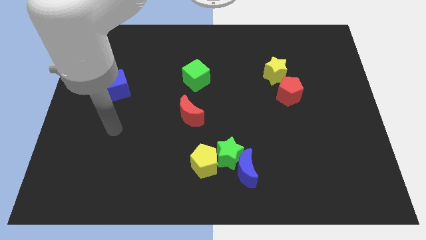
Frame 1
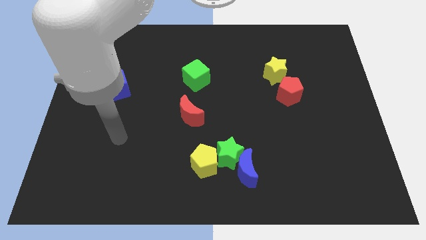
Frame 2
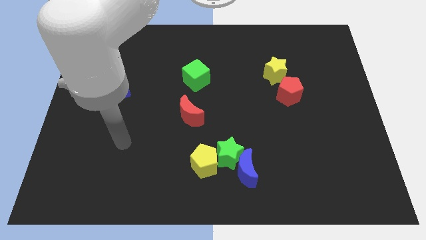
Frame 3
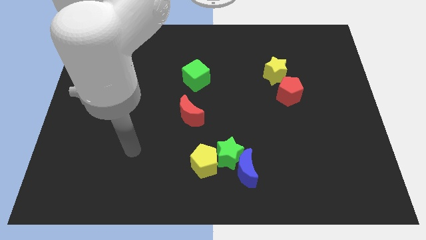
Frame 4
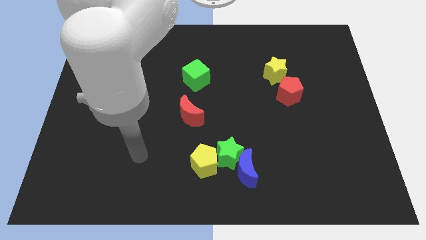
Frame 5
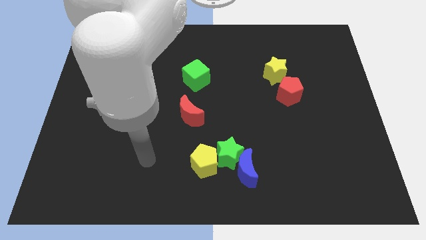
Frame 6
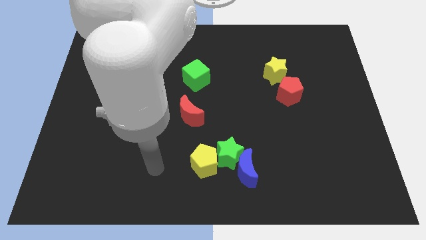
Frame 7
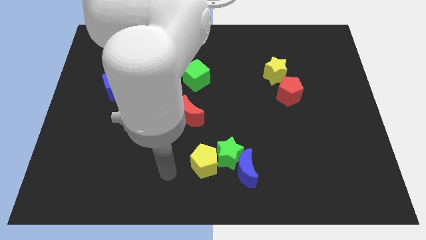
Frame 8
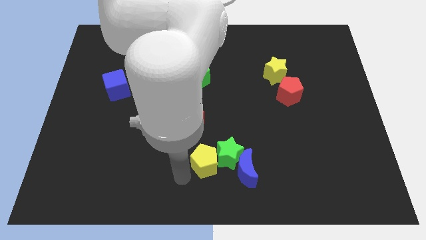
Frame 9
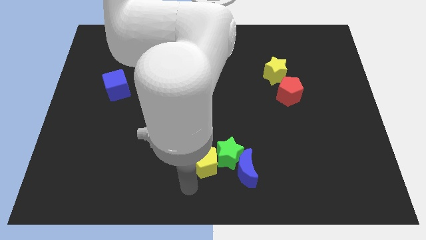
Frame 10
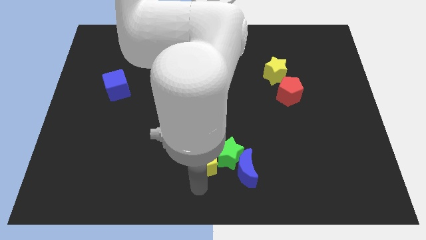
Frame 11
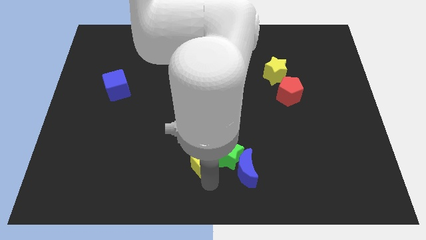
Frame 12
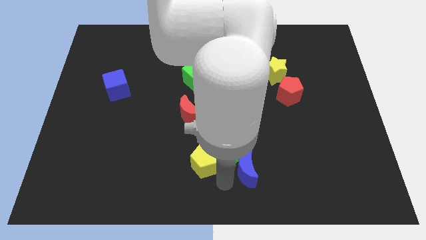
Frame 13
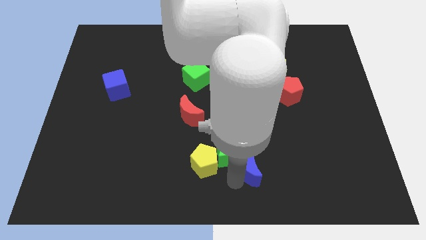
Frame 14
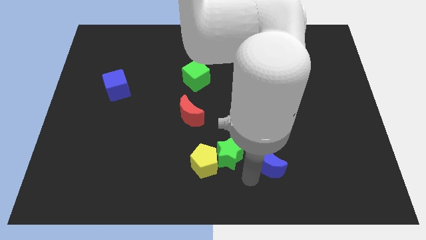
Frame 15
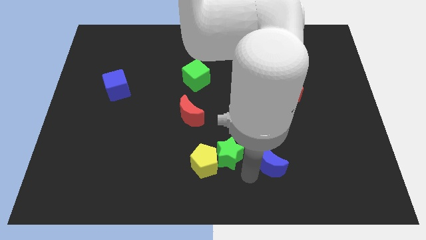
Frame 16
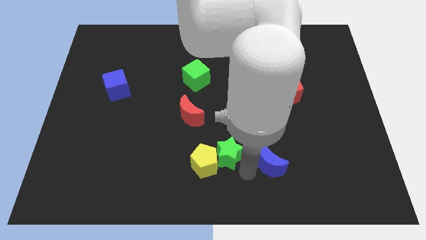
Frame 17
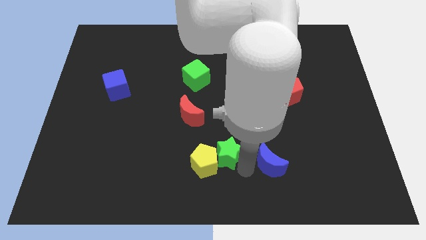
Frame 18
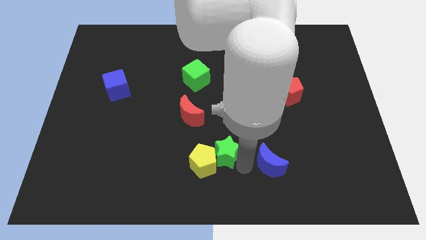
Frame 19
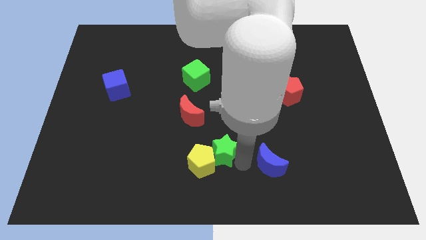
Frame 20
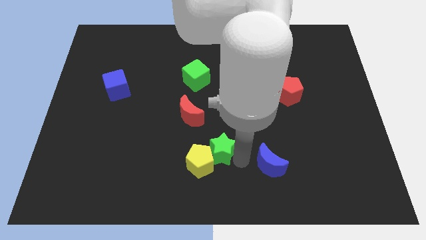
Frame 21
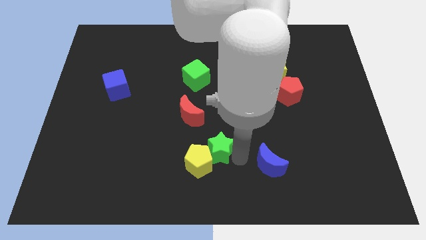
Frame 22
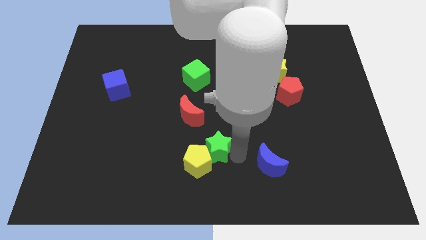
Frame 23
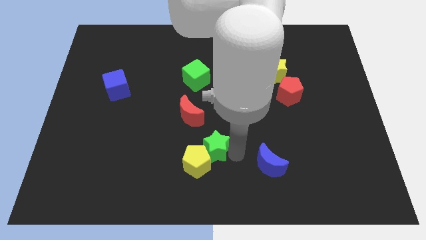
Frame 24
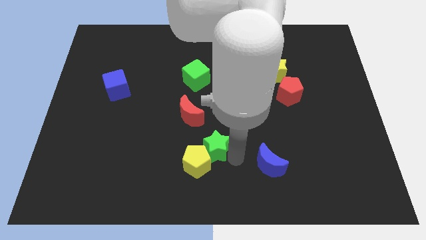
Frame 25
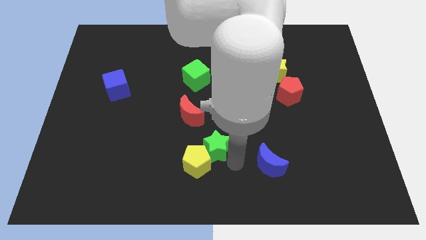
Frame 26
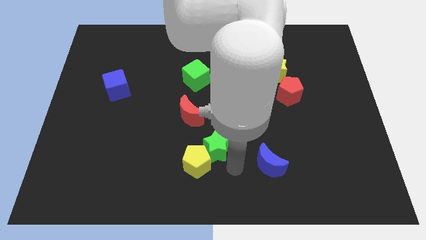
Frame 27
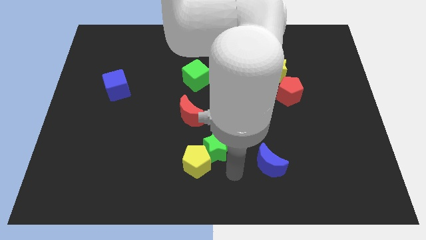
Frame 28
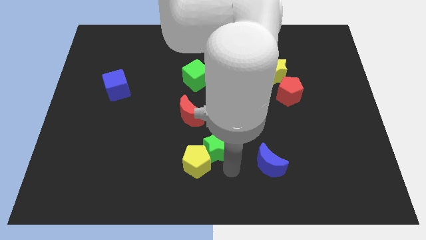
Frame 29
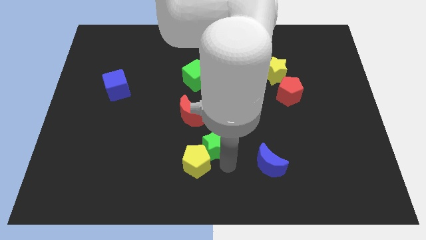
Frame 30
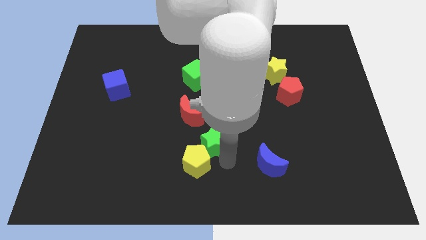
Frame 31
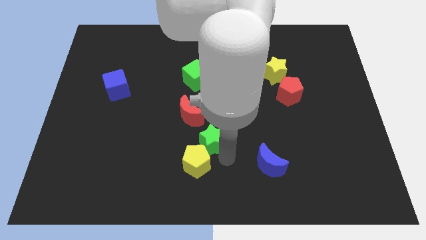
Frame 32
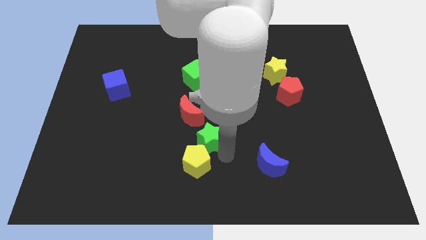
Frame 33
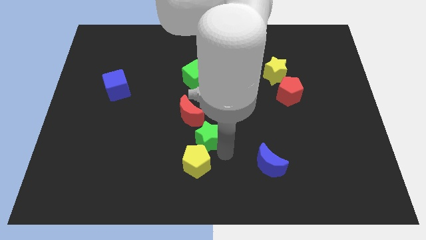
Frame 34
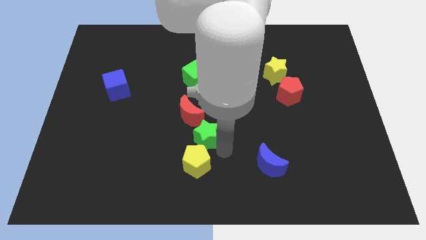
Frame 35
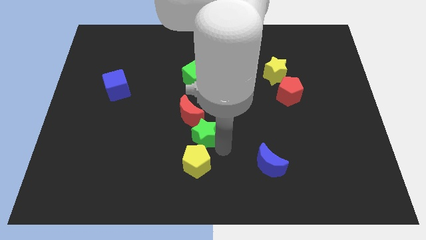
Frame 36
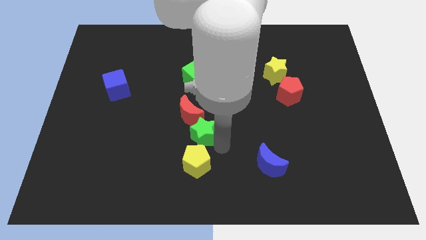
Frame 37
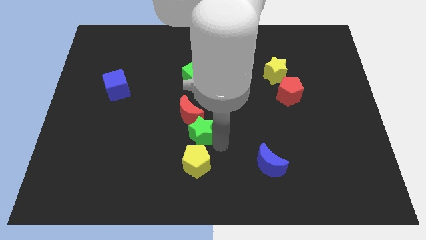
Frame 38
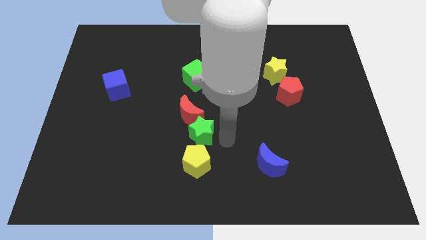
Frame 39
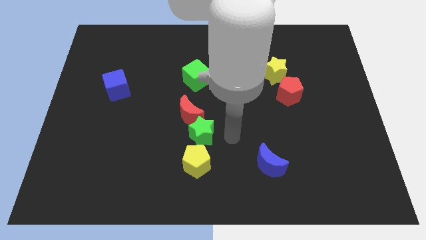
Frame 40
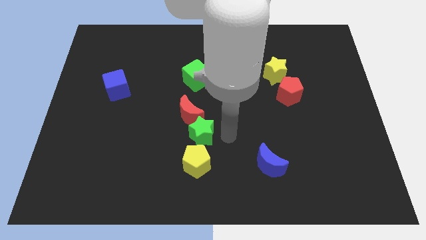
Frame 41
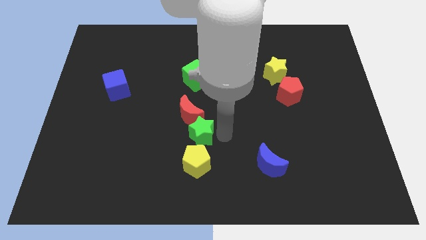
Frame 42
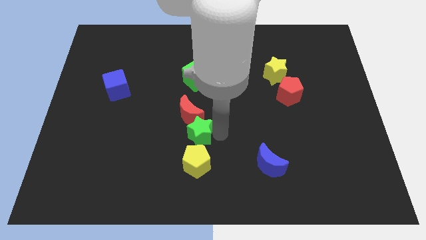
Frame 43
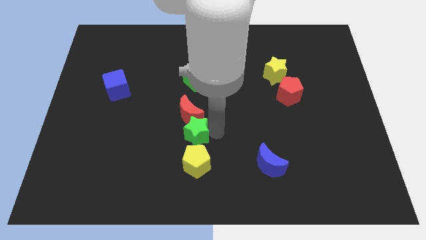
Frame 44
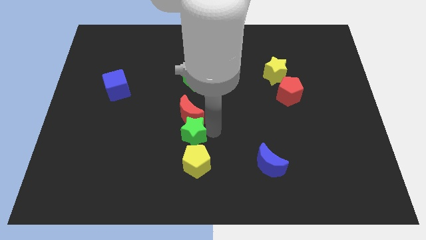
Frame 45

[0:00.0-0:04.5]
slide the green star to the bottom left side of the red moon

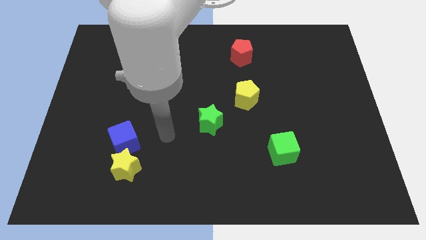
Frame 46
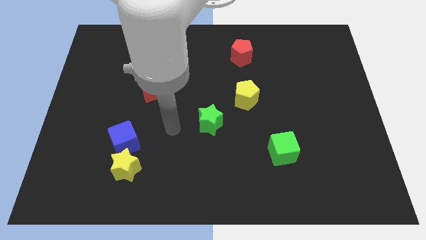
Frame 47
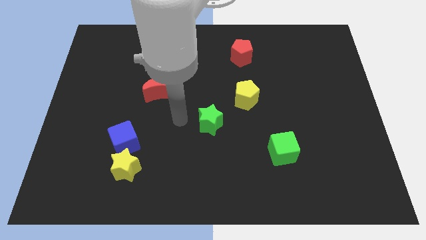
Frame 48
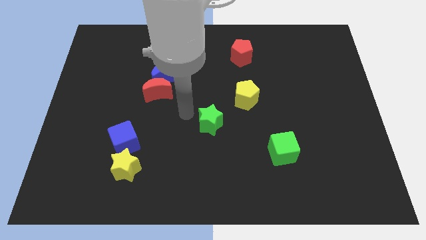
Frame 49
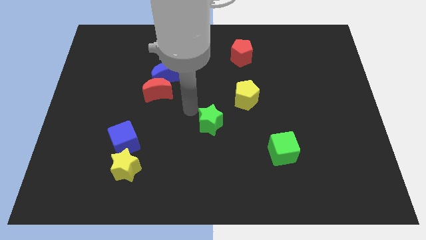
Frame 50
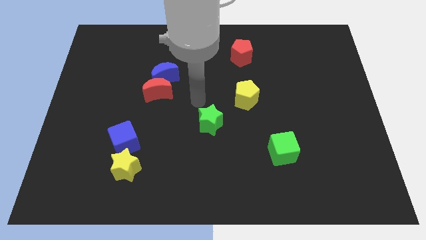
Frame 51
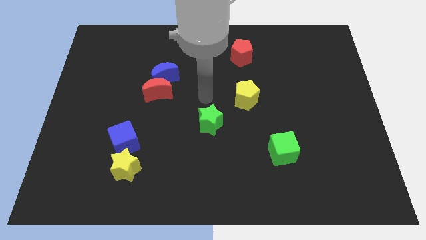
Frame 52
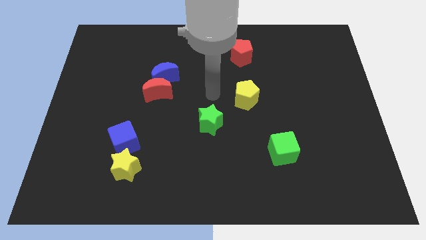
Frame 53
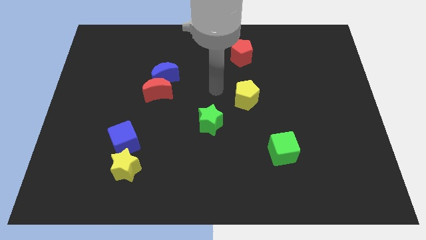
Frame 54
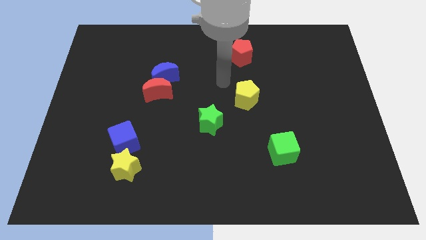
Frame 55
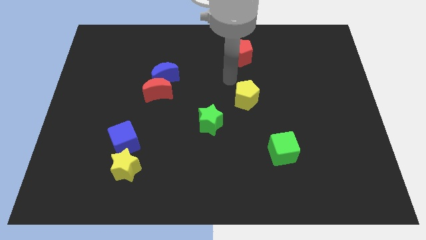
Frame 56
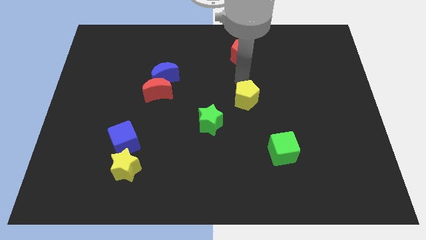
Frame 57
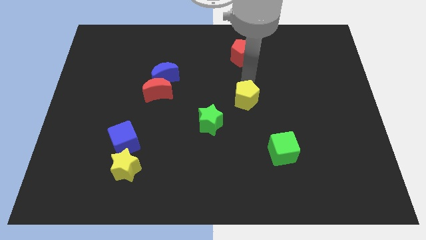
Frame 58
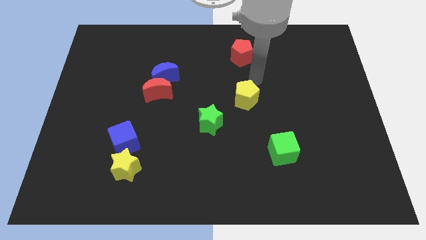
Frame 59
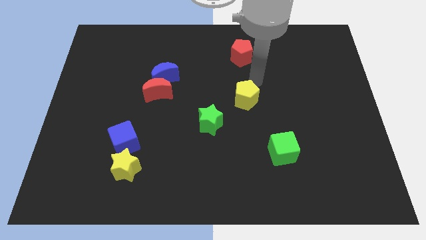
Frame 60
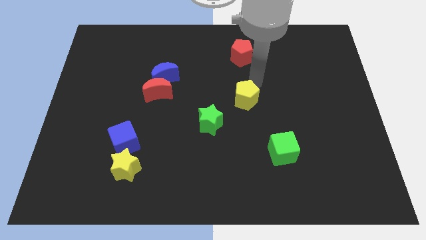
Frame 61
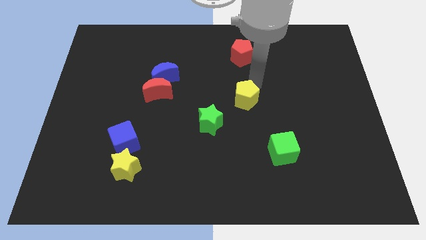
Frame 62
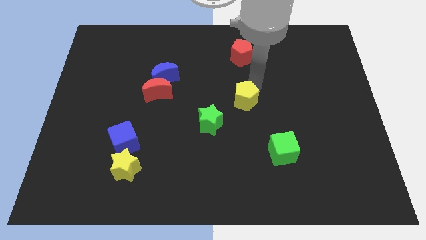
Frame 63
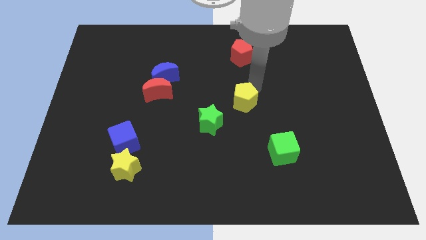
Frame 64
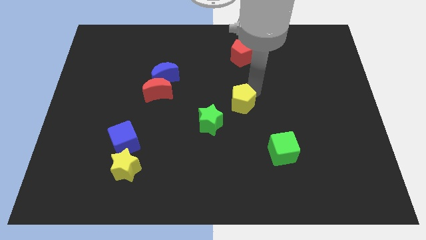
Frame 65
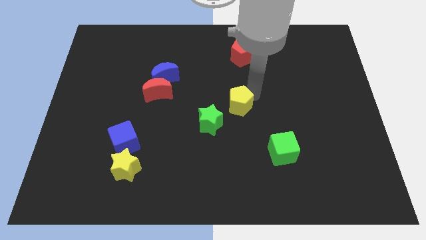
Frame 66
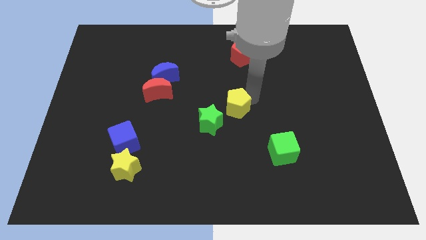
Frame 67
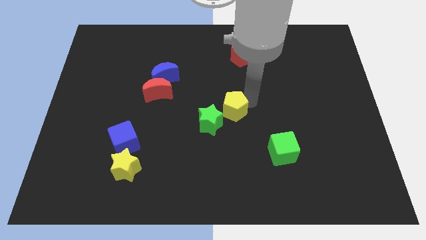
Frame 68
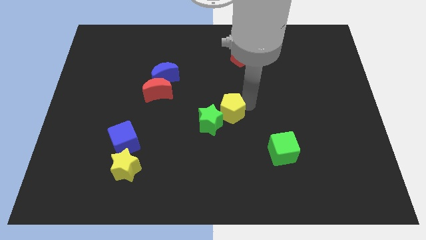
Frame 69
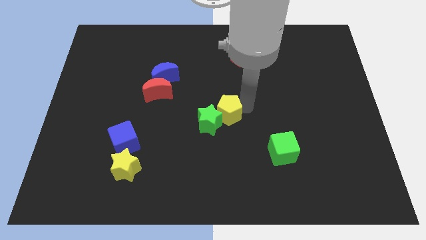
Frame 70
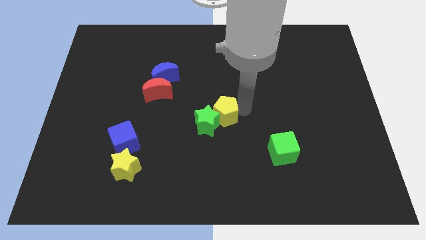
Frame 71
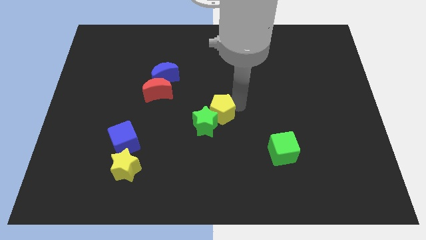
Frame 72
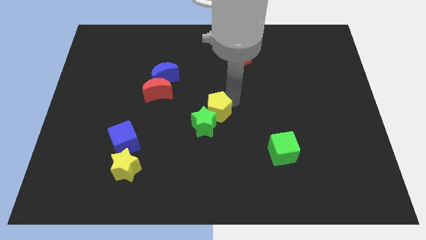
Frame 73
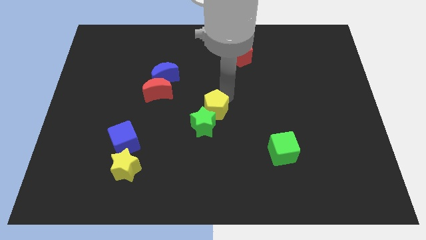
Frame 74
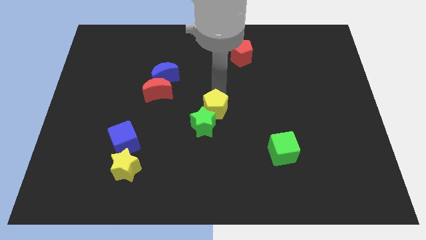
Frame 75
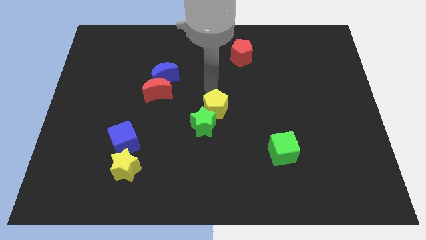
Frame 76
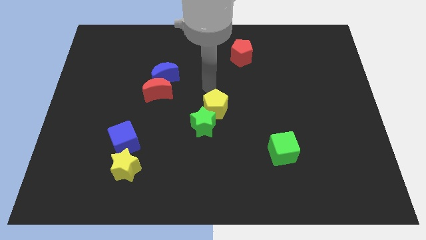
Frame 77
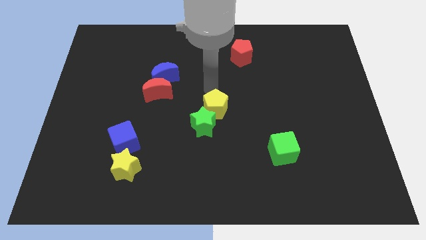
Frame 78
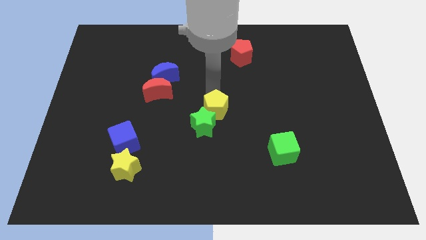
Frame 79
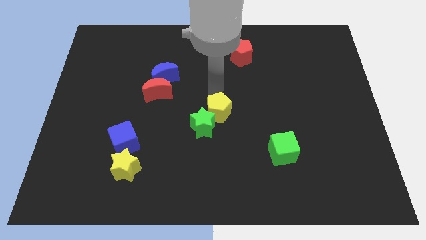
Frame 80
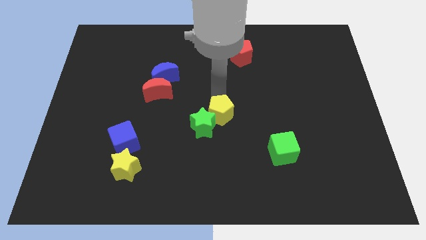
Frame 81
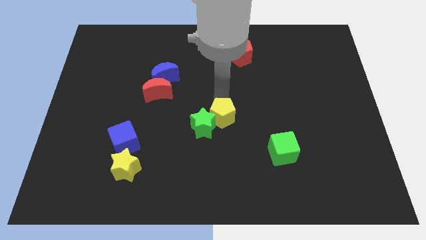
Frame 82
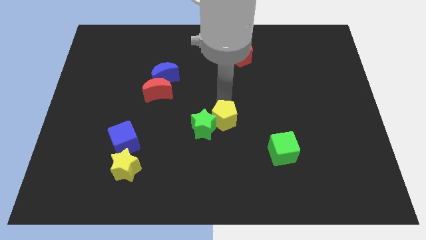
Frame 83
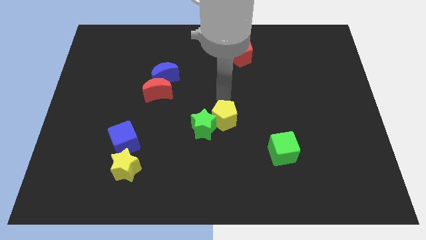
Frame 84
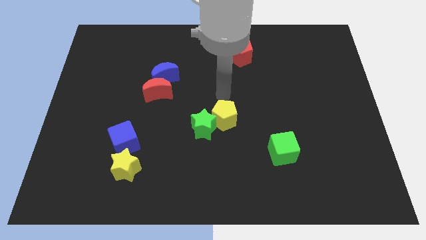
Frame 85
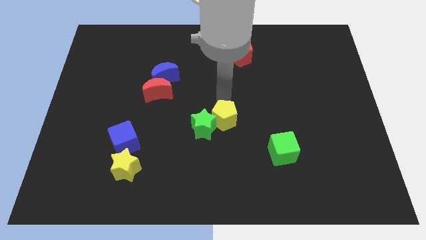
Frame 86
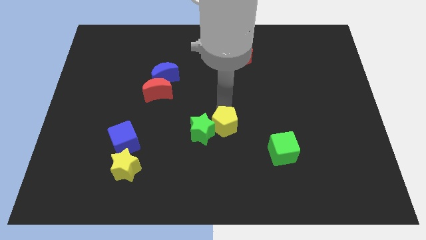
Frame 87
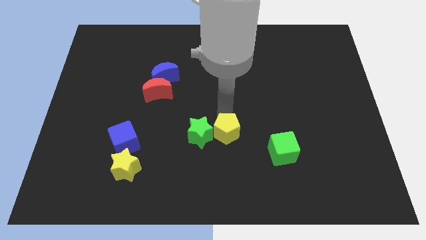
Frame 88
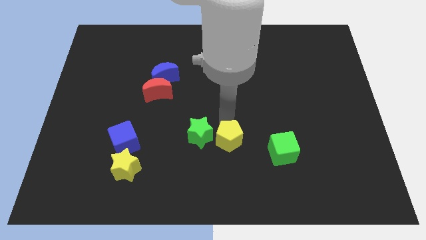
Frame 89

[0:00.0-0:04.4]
move the yellow pentagon to the bottom right of the green star
